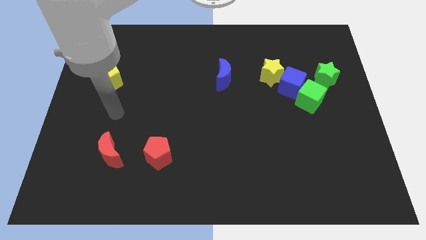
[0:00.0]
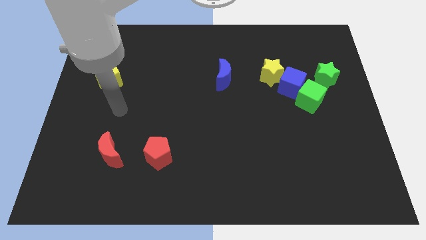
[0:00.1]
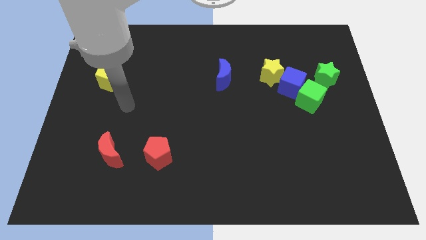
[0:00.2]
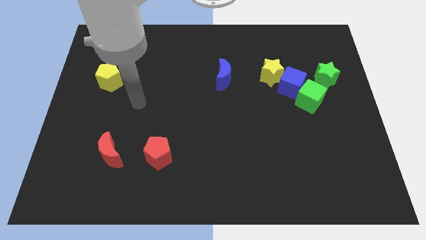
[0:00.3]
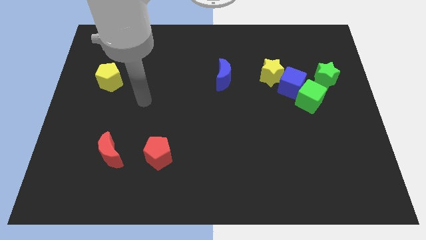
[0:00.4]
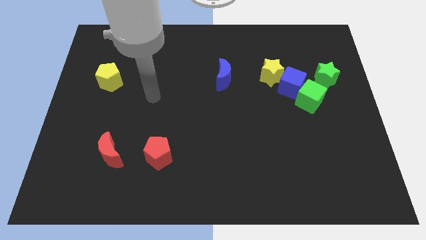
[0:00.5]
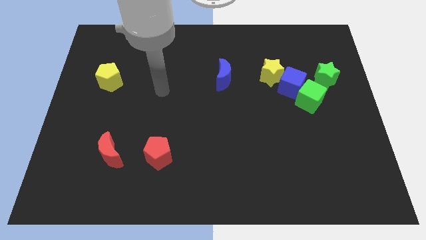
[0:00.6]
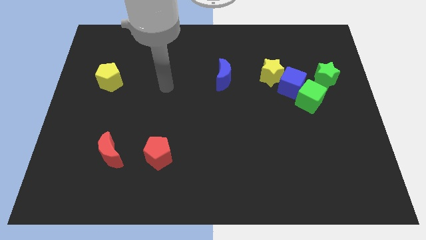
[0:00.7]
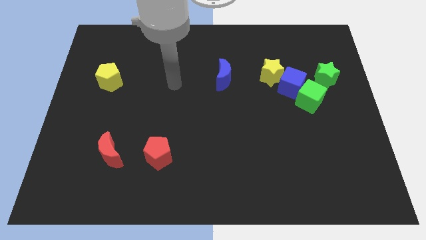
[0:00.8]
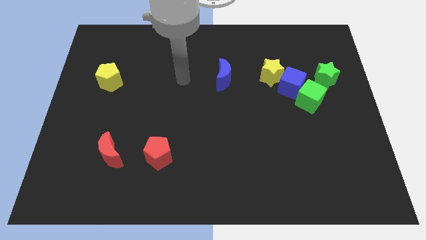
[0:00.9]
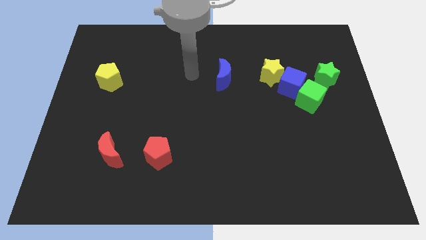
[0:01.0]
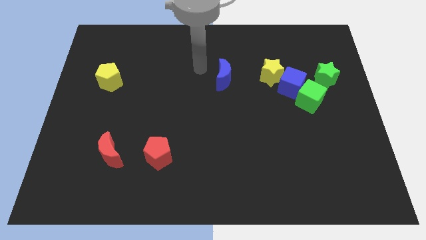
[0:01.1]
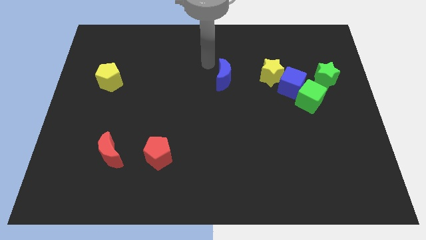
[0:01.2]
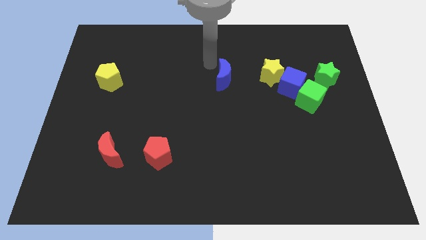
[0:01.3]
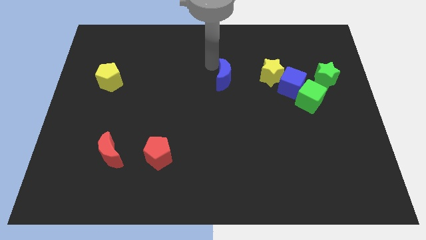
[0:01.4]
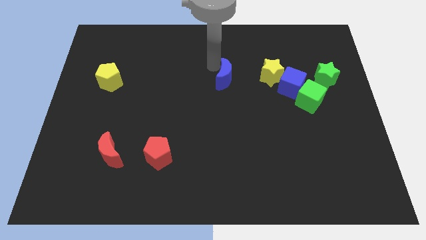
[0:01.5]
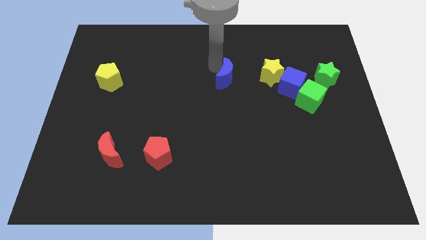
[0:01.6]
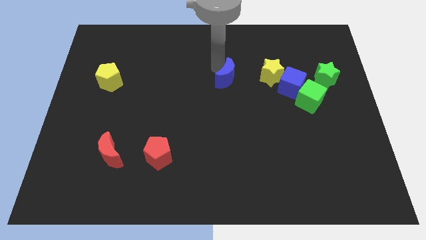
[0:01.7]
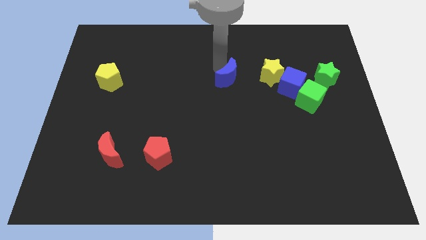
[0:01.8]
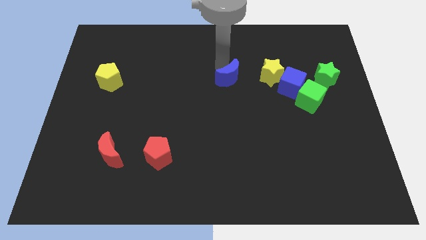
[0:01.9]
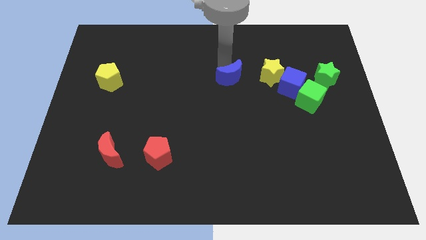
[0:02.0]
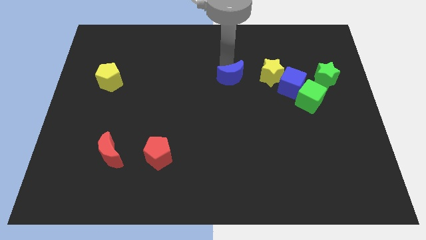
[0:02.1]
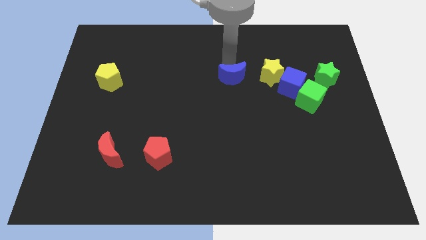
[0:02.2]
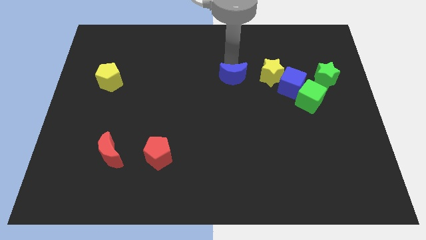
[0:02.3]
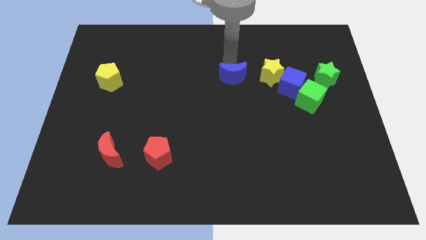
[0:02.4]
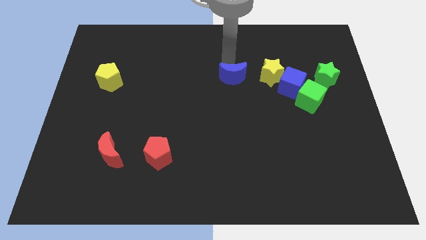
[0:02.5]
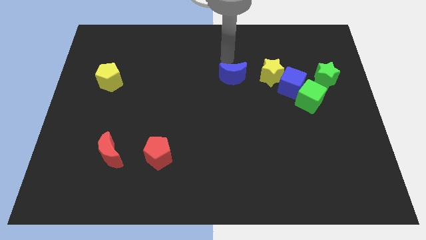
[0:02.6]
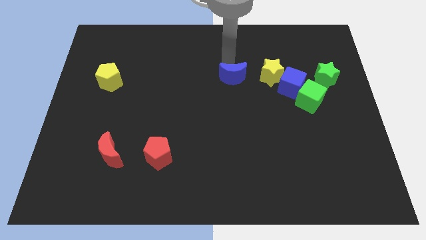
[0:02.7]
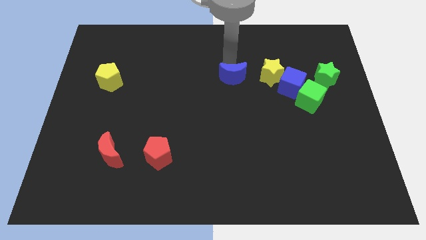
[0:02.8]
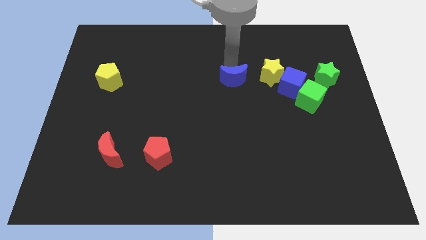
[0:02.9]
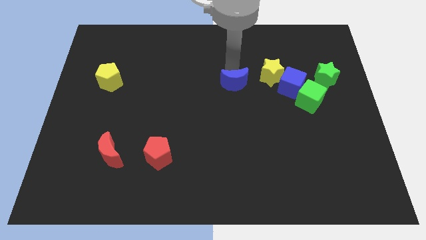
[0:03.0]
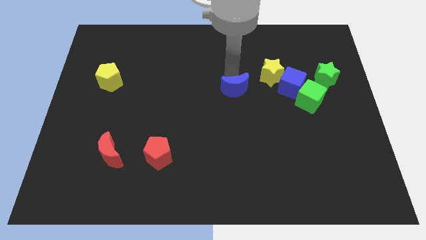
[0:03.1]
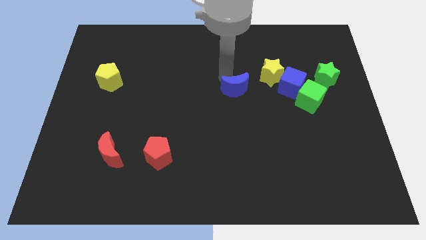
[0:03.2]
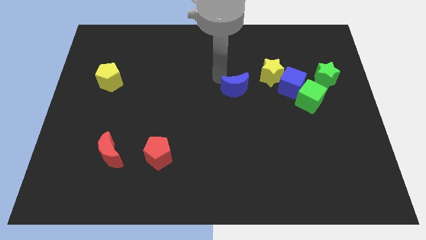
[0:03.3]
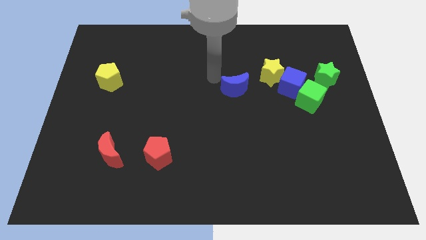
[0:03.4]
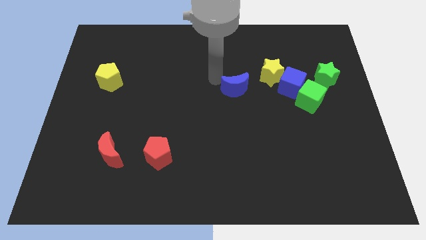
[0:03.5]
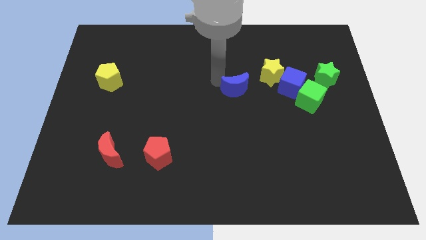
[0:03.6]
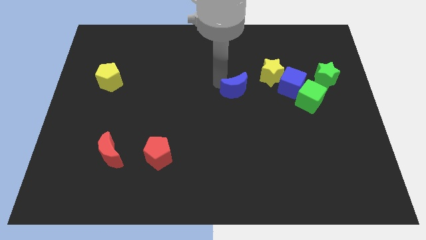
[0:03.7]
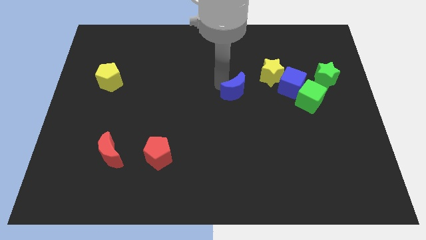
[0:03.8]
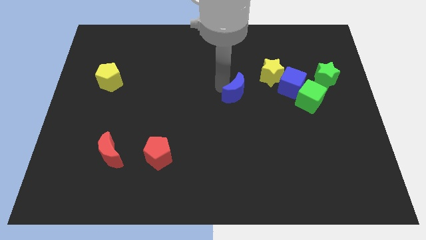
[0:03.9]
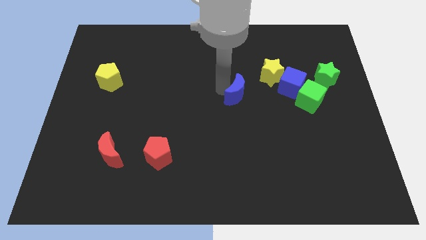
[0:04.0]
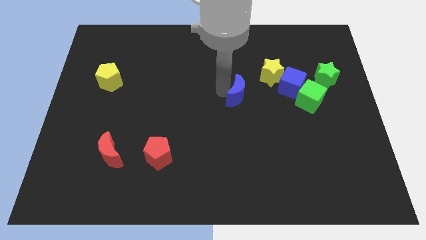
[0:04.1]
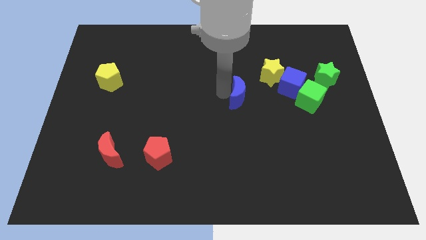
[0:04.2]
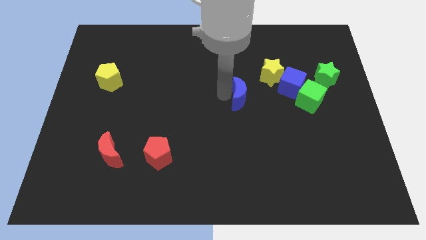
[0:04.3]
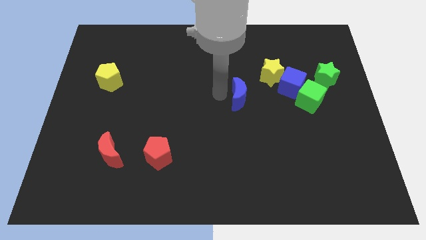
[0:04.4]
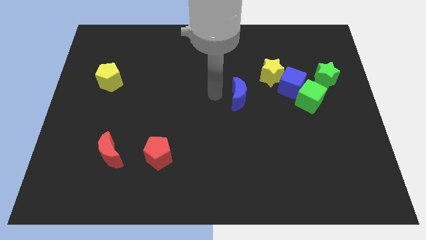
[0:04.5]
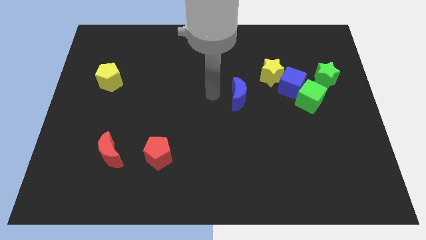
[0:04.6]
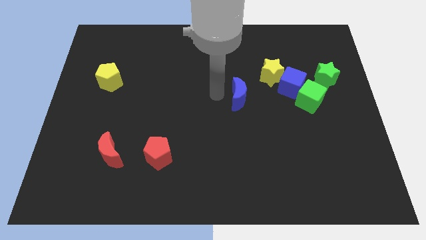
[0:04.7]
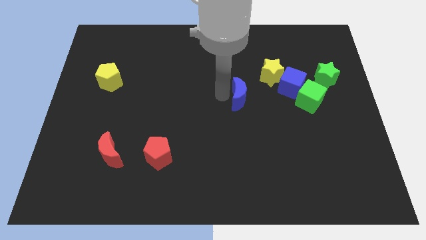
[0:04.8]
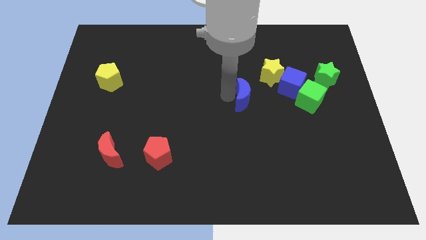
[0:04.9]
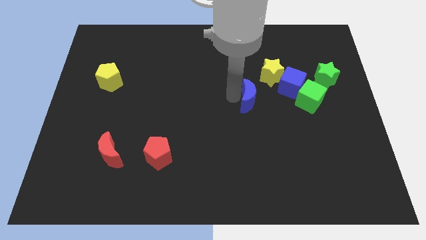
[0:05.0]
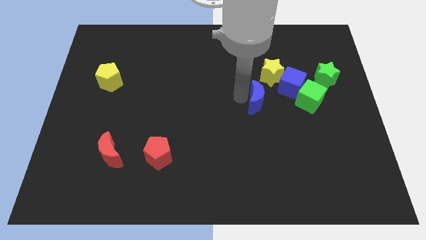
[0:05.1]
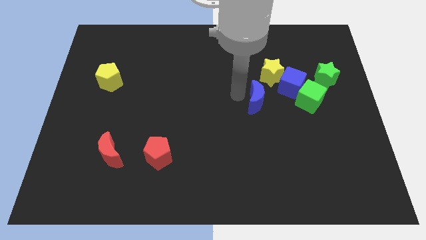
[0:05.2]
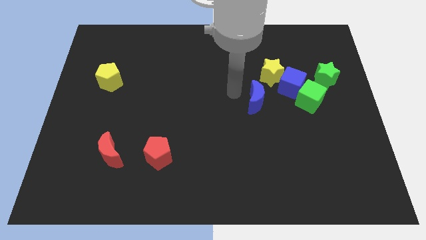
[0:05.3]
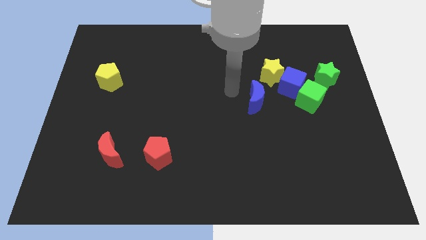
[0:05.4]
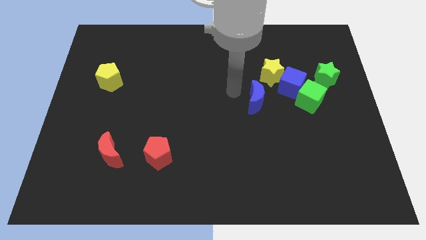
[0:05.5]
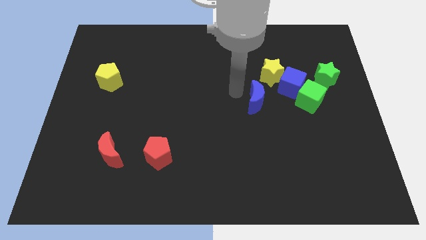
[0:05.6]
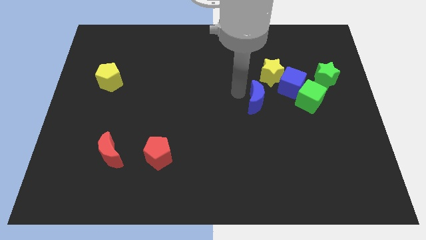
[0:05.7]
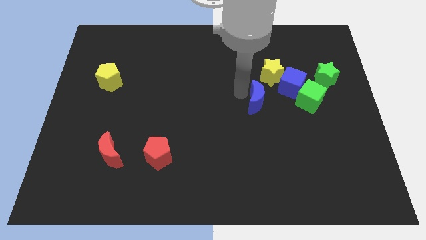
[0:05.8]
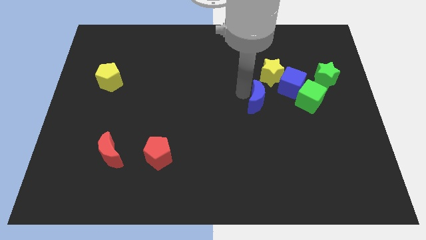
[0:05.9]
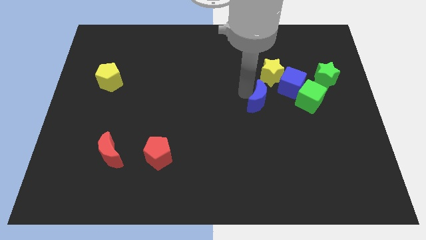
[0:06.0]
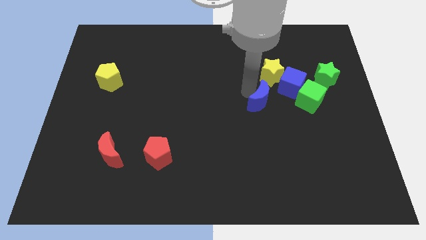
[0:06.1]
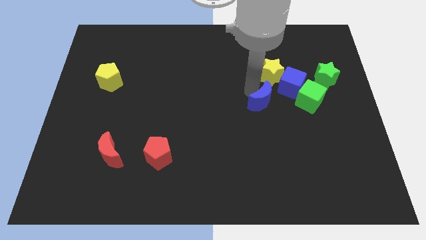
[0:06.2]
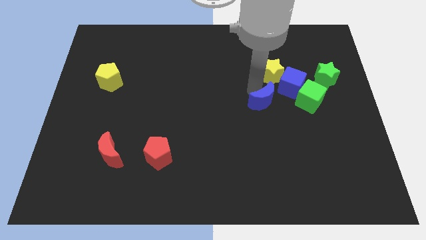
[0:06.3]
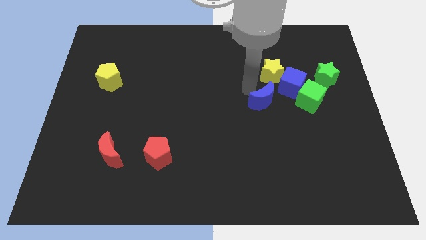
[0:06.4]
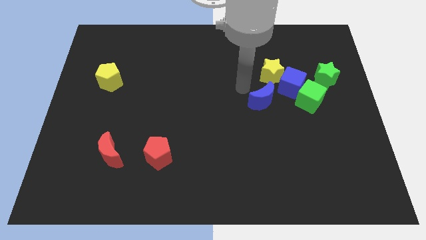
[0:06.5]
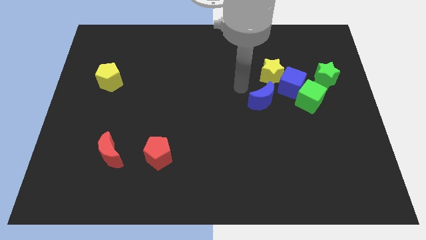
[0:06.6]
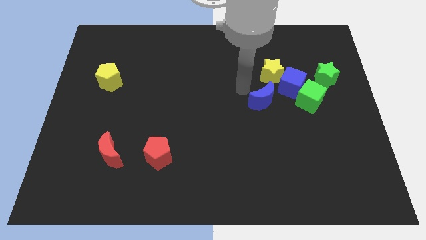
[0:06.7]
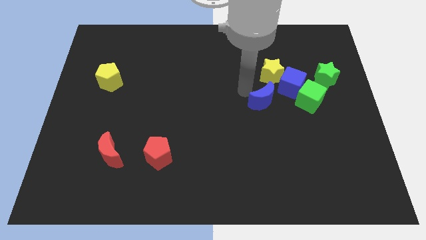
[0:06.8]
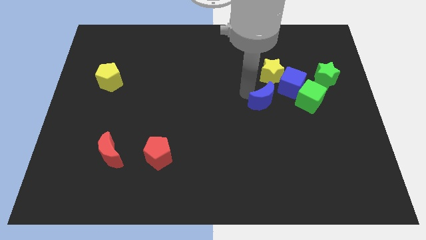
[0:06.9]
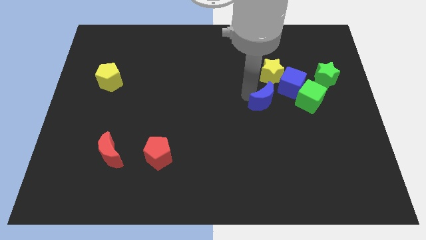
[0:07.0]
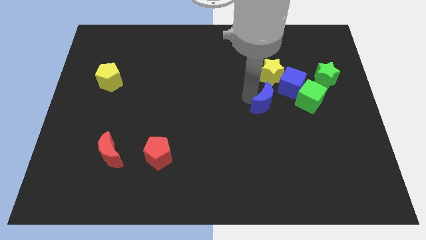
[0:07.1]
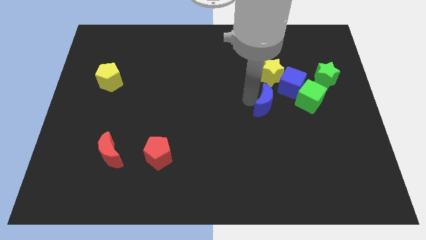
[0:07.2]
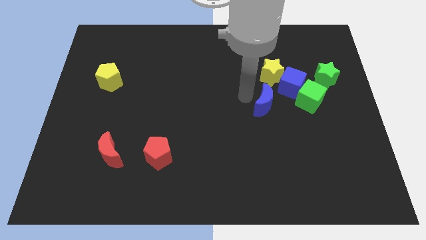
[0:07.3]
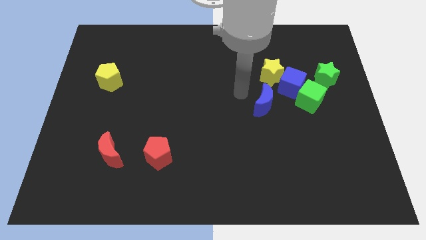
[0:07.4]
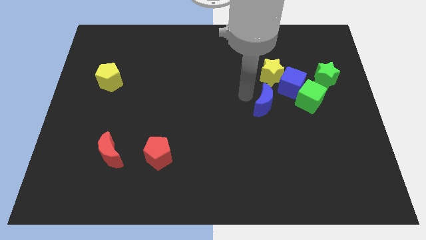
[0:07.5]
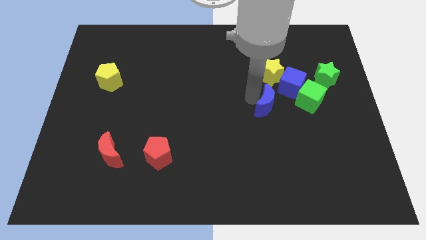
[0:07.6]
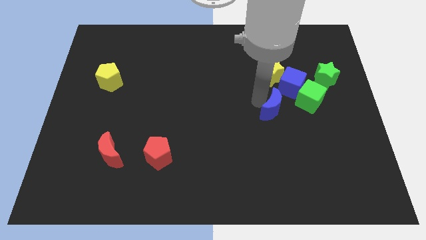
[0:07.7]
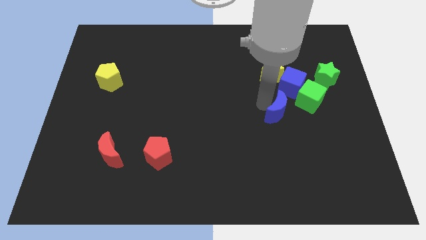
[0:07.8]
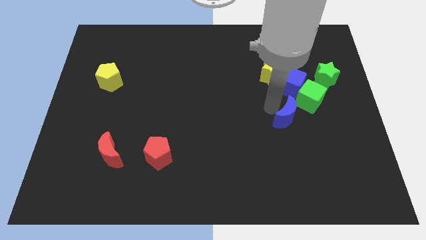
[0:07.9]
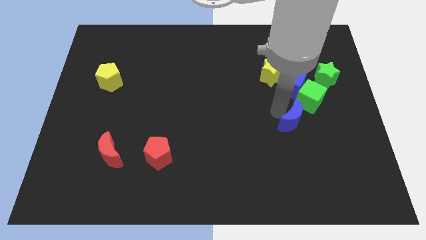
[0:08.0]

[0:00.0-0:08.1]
slide the blue moon down and then to the right
